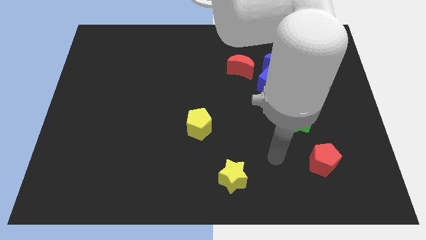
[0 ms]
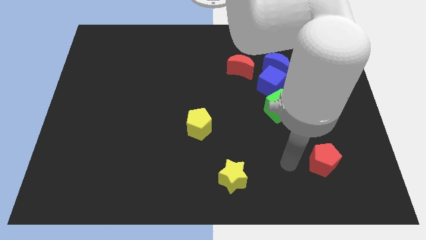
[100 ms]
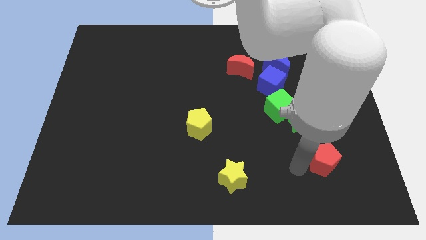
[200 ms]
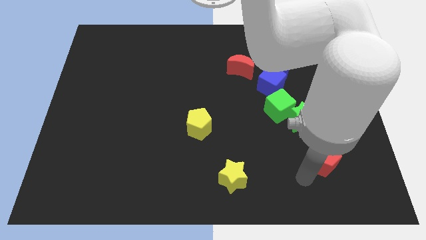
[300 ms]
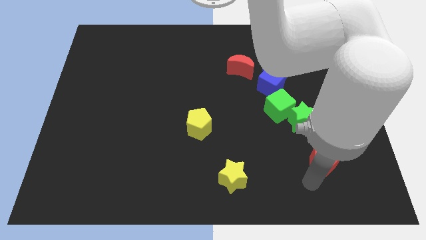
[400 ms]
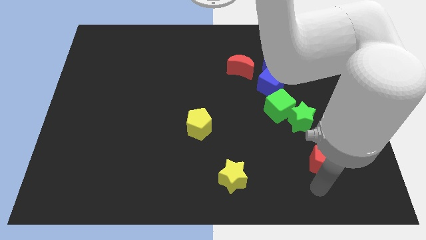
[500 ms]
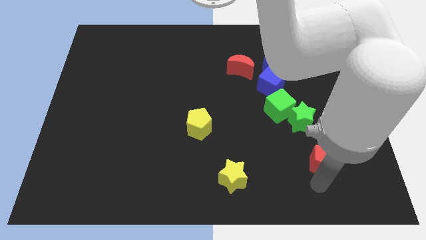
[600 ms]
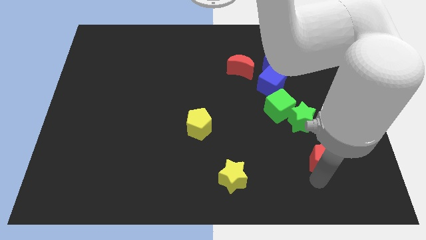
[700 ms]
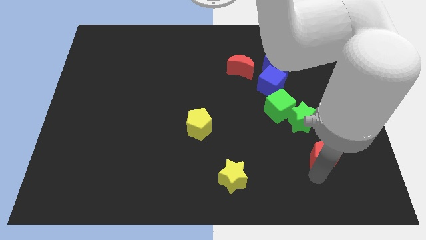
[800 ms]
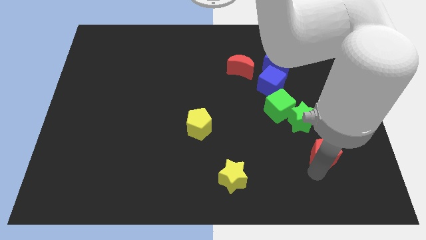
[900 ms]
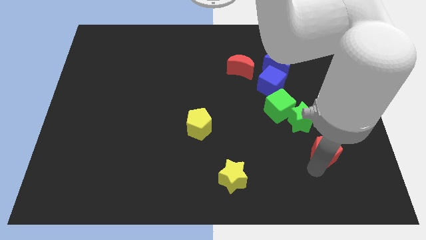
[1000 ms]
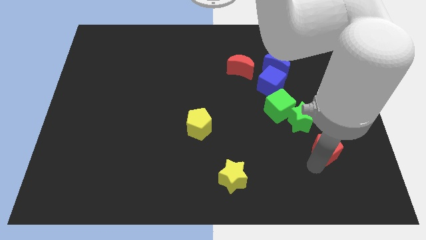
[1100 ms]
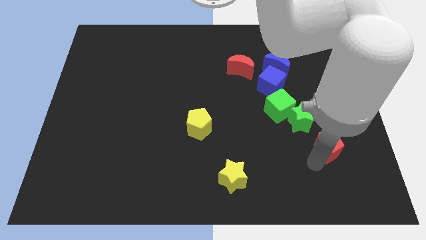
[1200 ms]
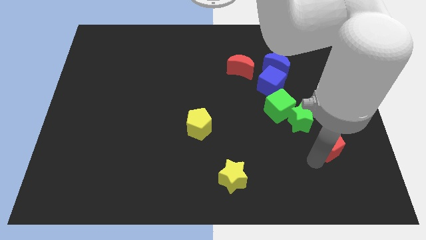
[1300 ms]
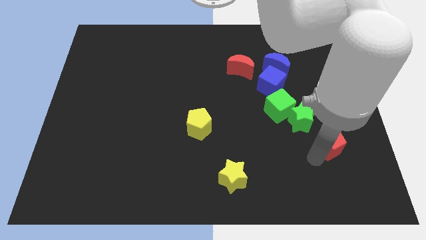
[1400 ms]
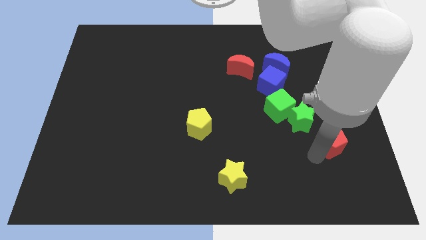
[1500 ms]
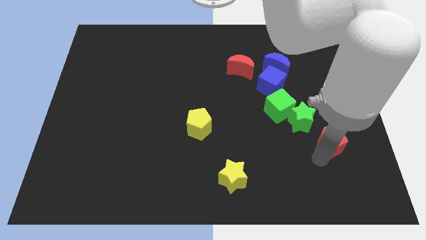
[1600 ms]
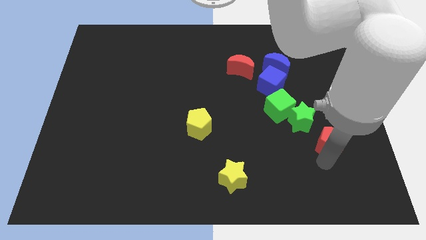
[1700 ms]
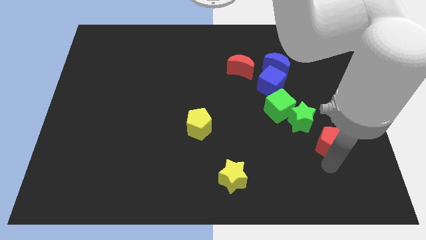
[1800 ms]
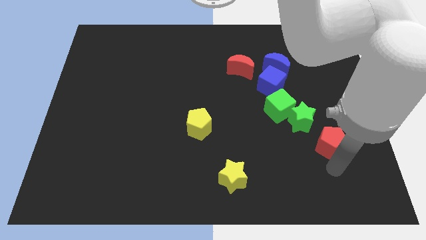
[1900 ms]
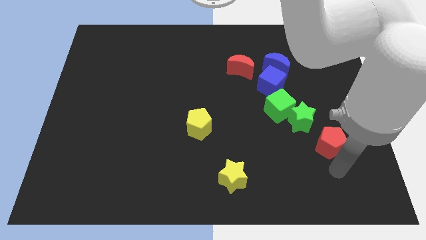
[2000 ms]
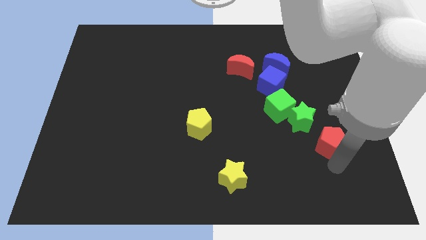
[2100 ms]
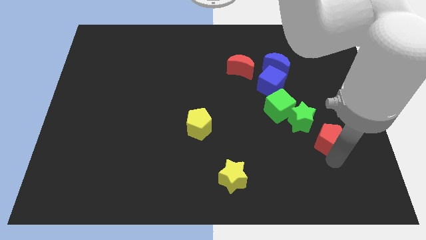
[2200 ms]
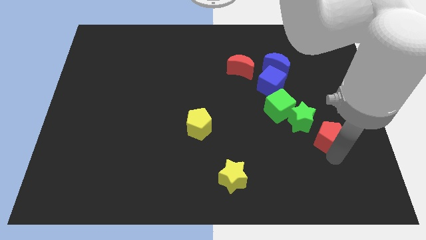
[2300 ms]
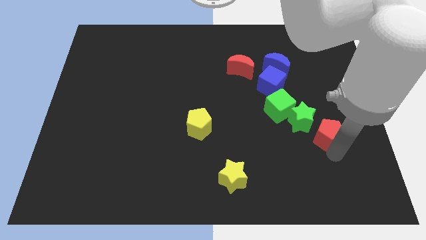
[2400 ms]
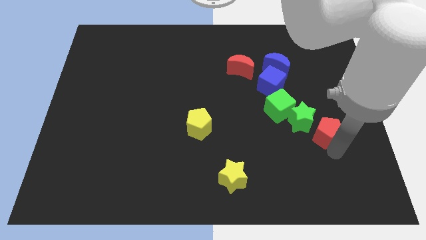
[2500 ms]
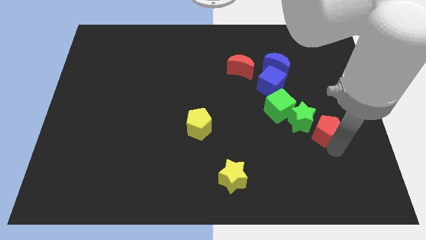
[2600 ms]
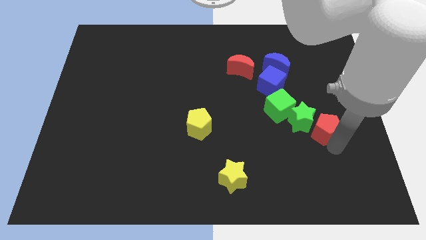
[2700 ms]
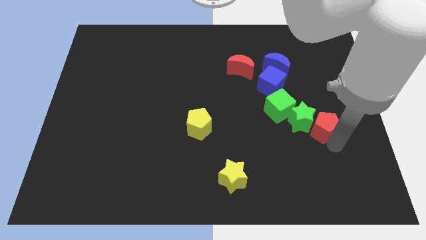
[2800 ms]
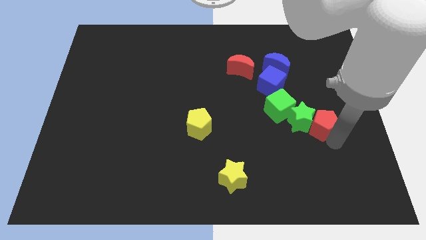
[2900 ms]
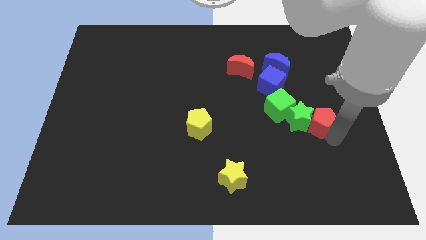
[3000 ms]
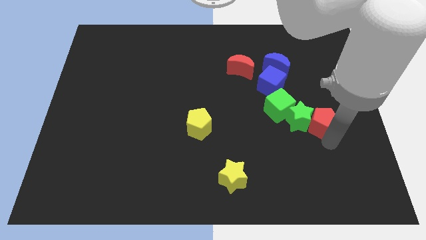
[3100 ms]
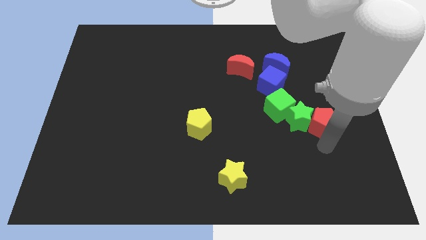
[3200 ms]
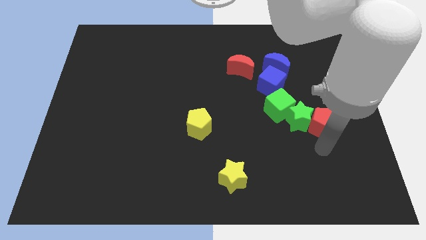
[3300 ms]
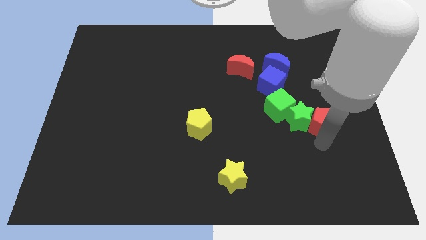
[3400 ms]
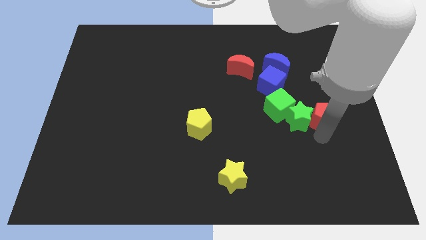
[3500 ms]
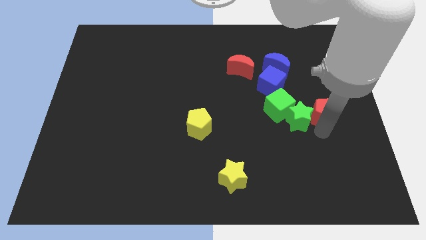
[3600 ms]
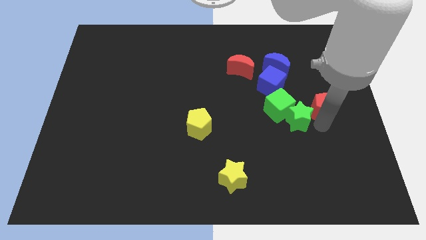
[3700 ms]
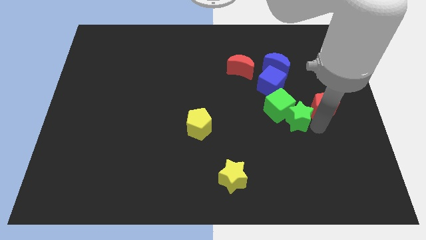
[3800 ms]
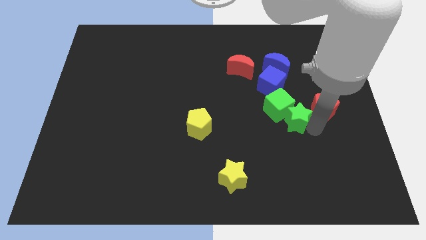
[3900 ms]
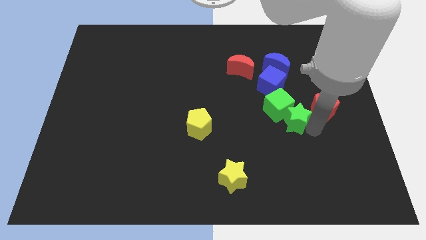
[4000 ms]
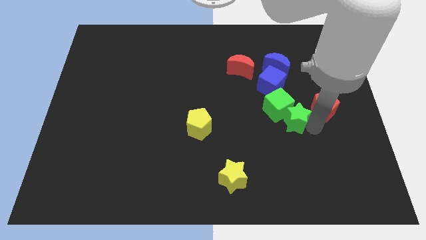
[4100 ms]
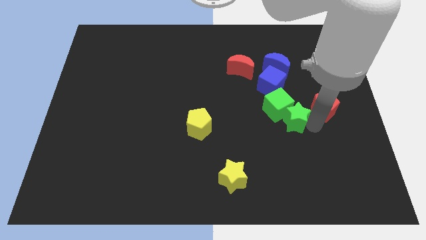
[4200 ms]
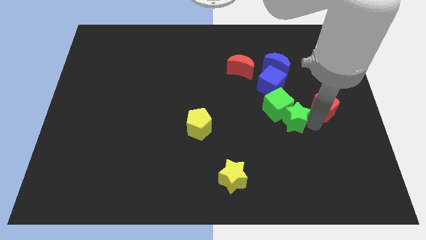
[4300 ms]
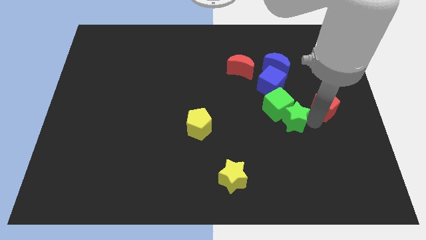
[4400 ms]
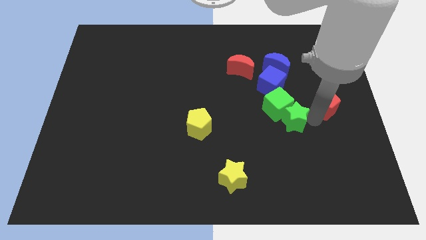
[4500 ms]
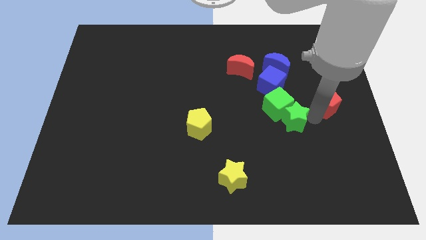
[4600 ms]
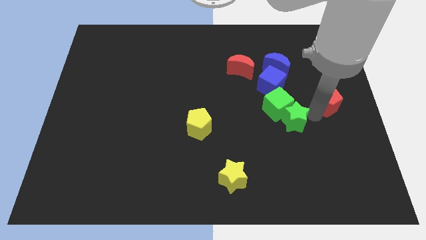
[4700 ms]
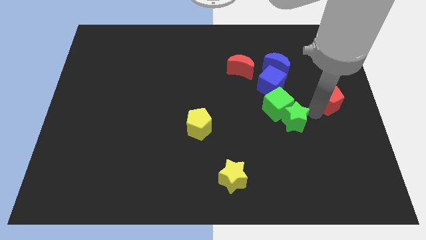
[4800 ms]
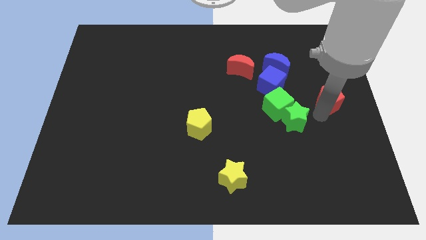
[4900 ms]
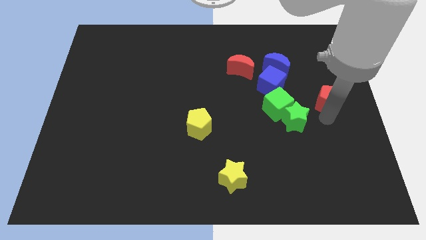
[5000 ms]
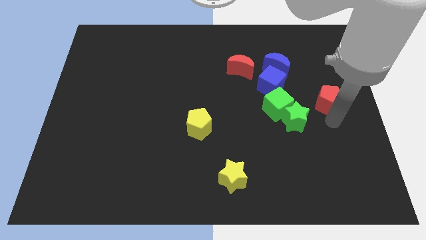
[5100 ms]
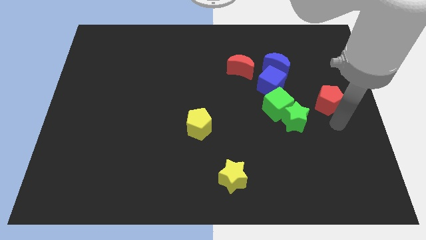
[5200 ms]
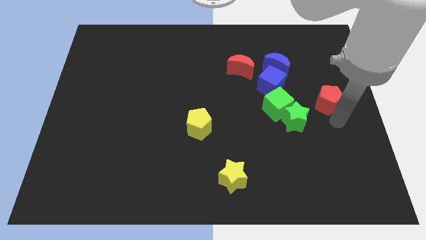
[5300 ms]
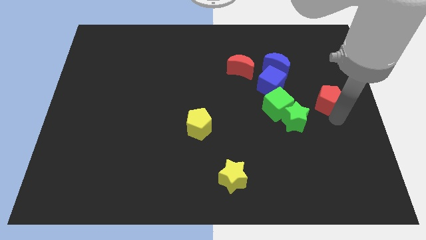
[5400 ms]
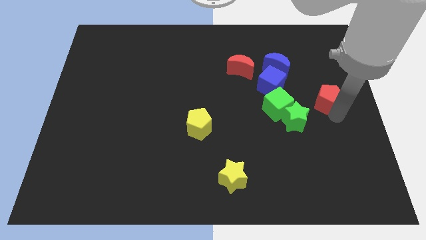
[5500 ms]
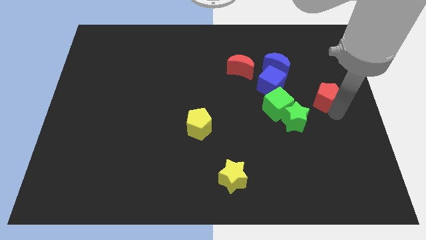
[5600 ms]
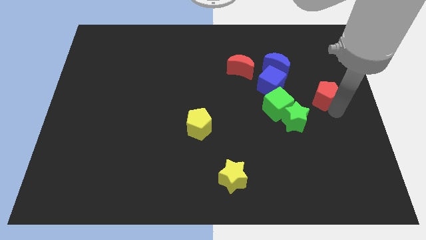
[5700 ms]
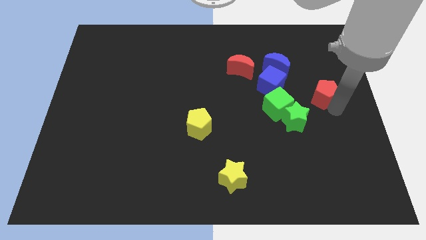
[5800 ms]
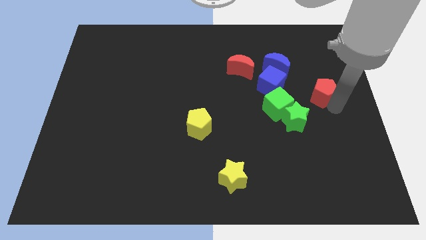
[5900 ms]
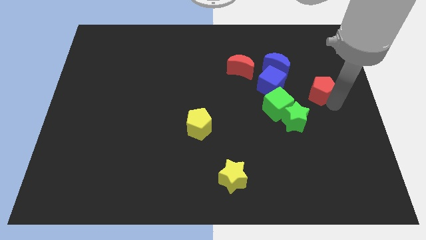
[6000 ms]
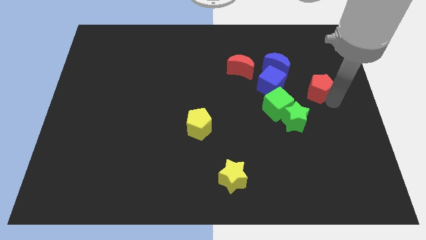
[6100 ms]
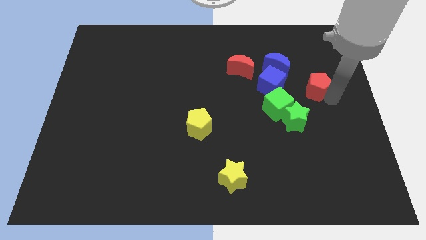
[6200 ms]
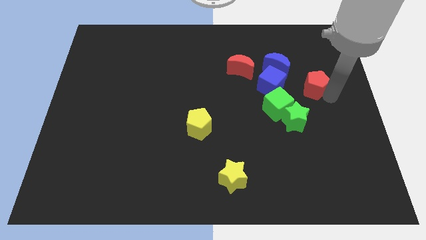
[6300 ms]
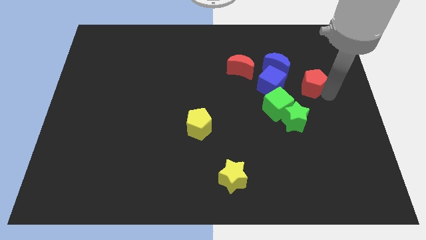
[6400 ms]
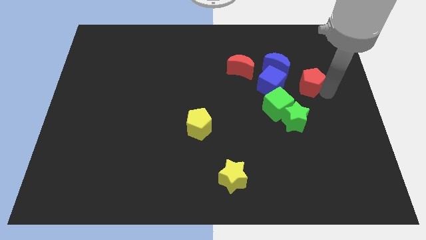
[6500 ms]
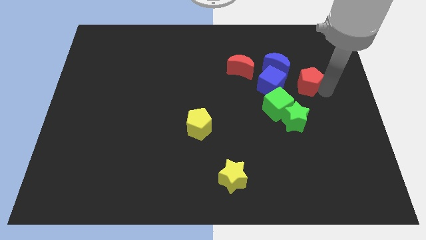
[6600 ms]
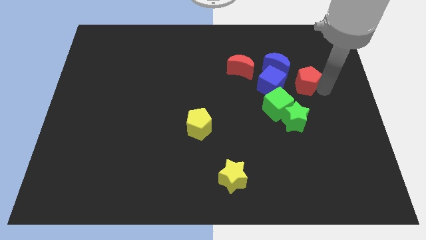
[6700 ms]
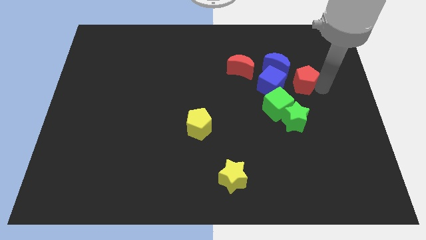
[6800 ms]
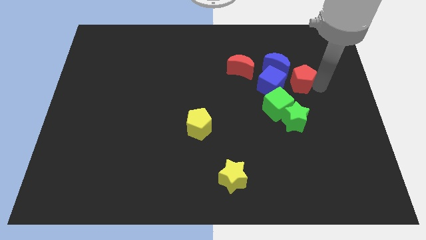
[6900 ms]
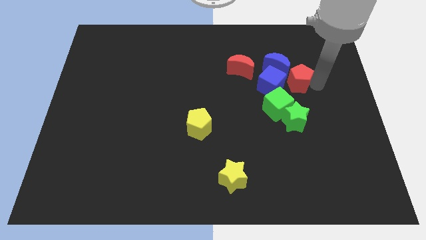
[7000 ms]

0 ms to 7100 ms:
push the red pentagon just right of the red moon
